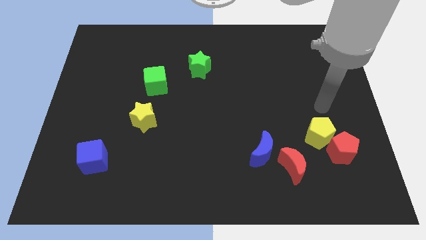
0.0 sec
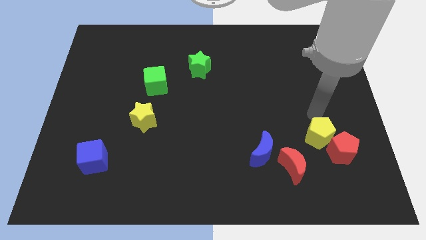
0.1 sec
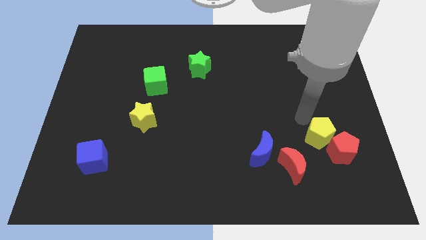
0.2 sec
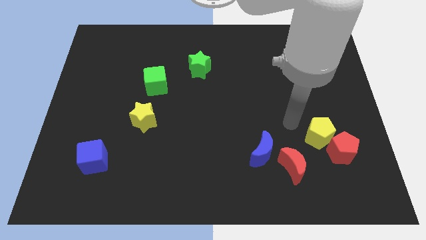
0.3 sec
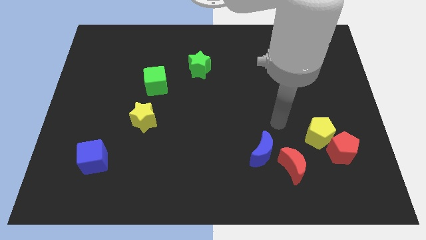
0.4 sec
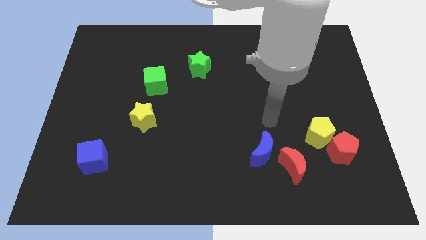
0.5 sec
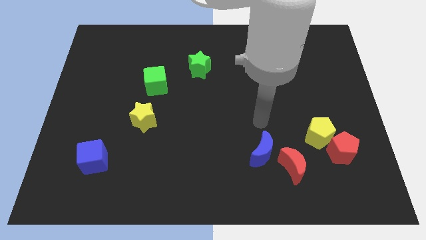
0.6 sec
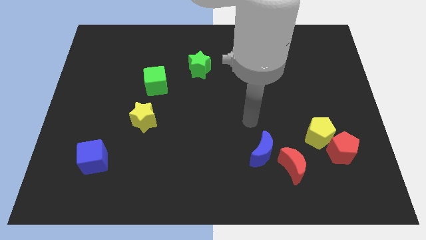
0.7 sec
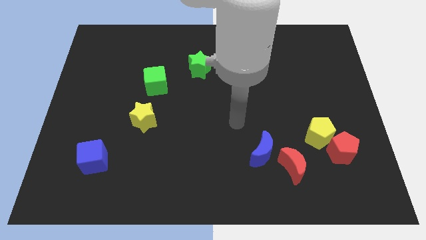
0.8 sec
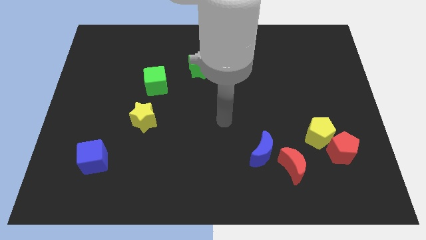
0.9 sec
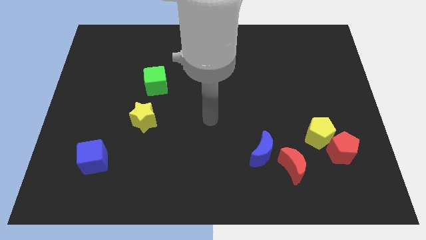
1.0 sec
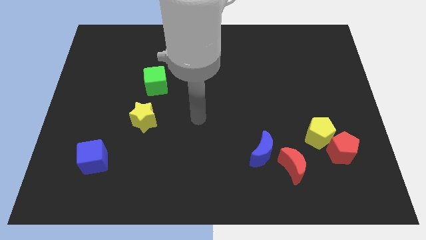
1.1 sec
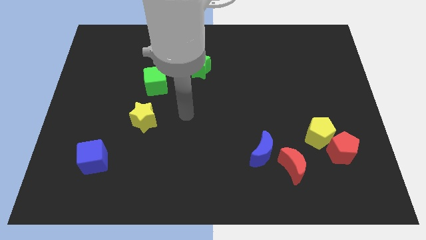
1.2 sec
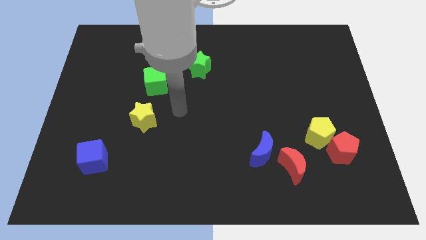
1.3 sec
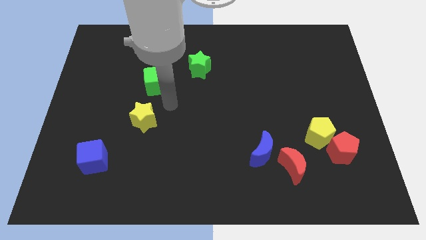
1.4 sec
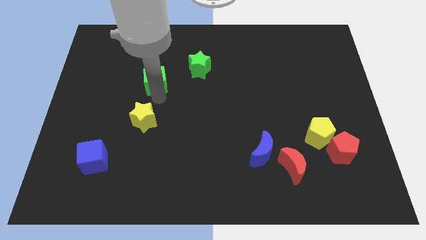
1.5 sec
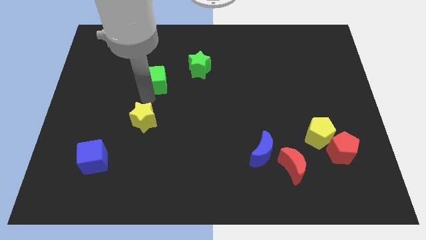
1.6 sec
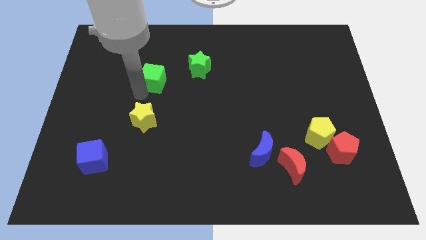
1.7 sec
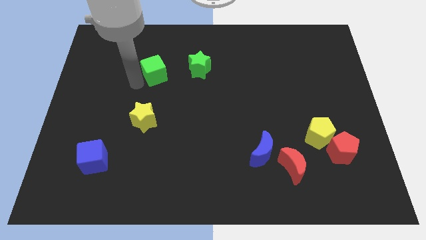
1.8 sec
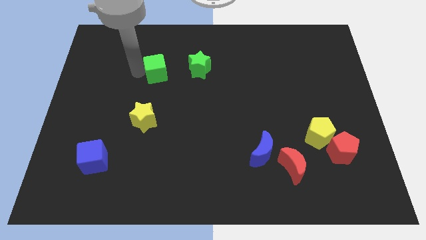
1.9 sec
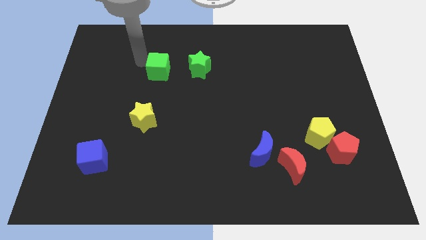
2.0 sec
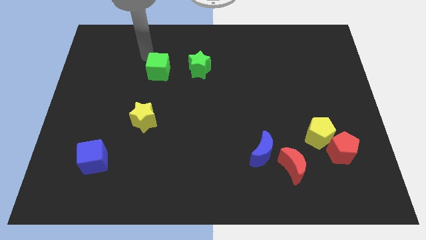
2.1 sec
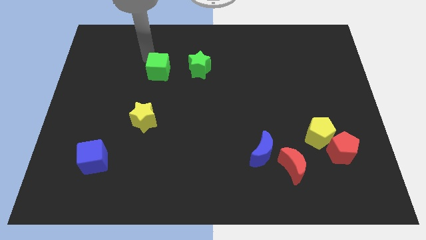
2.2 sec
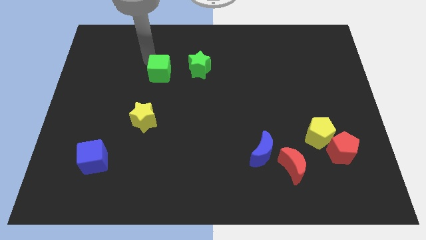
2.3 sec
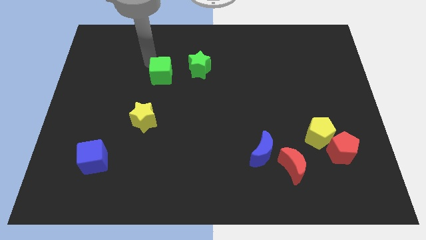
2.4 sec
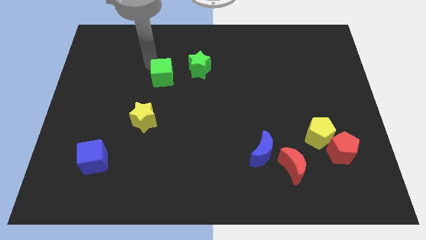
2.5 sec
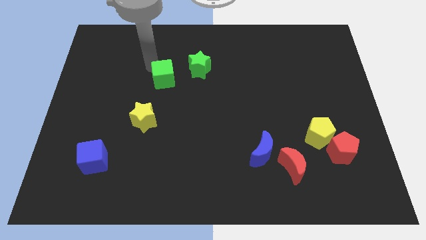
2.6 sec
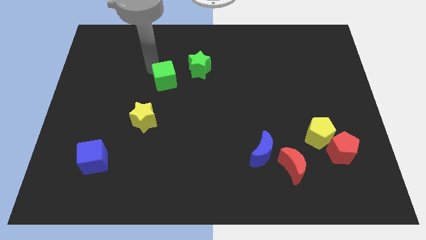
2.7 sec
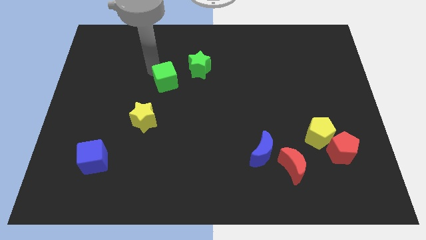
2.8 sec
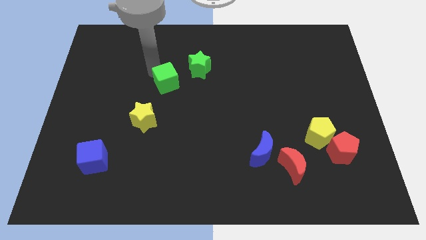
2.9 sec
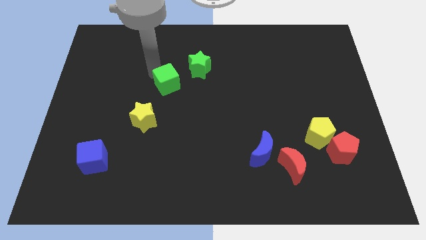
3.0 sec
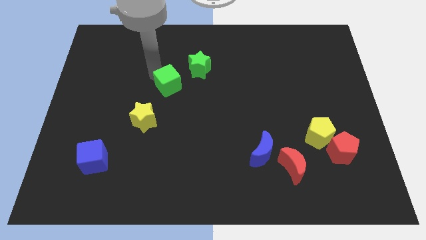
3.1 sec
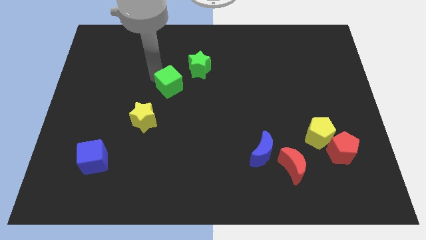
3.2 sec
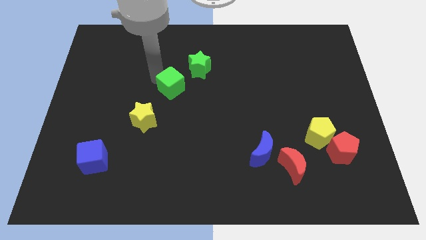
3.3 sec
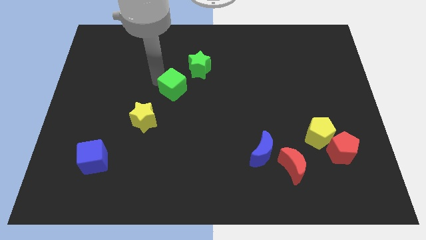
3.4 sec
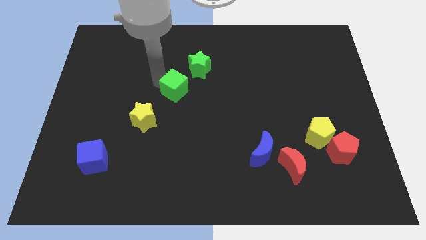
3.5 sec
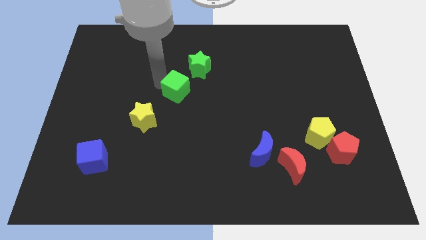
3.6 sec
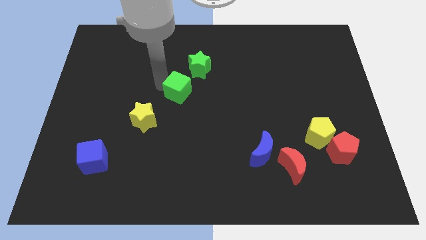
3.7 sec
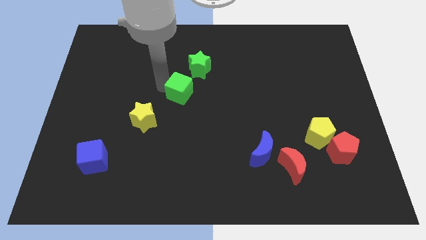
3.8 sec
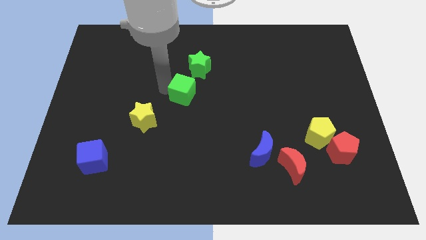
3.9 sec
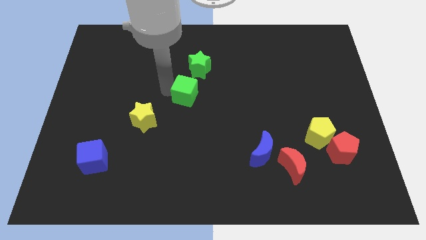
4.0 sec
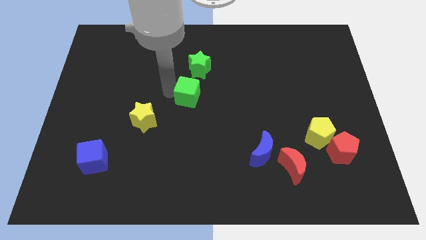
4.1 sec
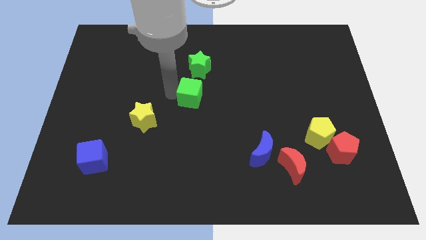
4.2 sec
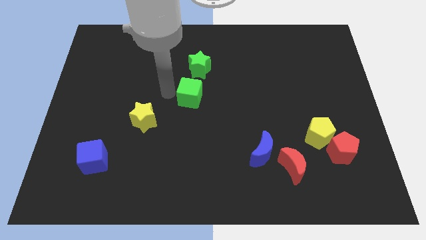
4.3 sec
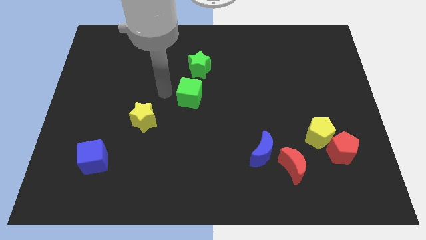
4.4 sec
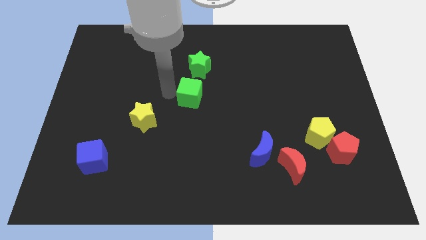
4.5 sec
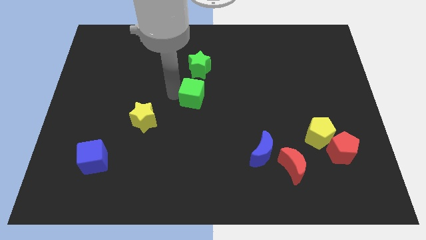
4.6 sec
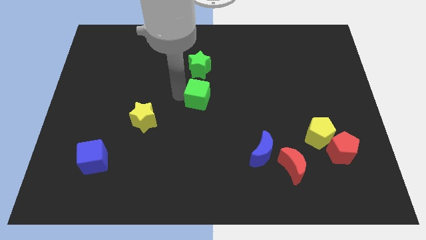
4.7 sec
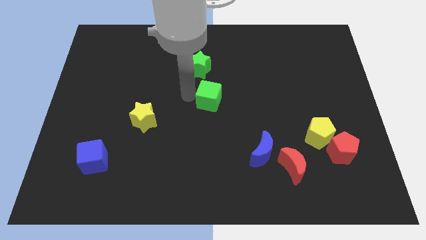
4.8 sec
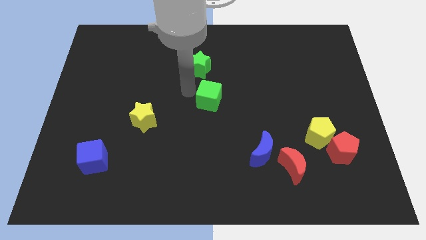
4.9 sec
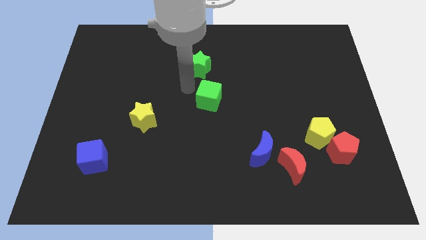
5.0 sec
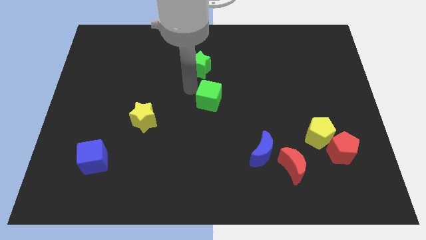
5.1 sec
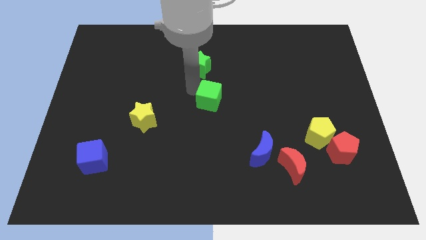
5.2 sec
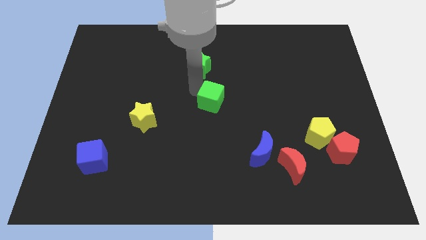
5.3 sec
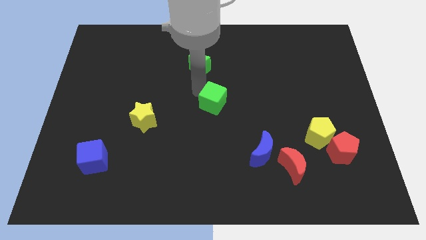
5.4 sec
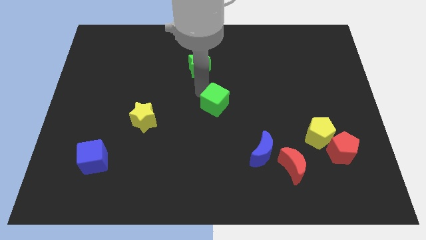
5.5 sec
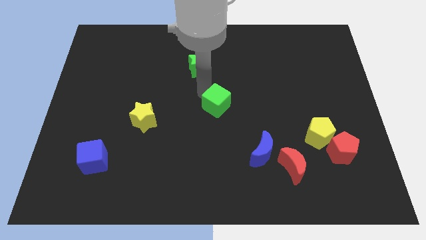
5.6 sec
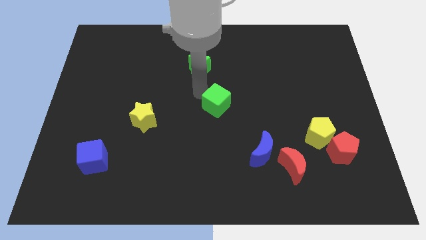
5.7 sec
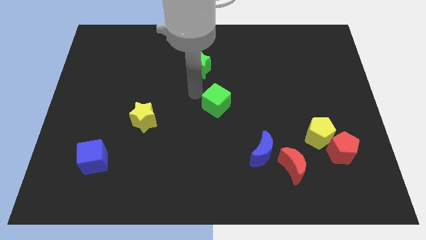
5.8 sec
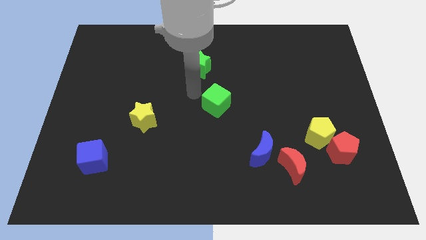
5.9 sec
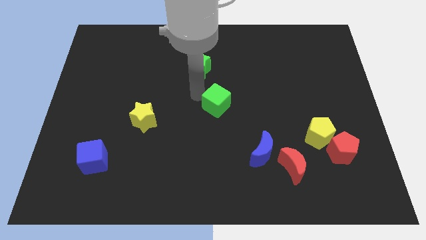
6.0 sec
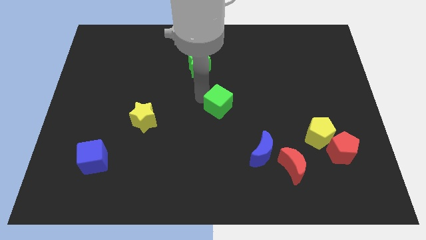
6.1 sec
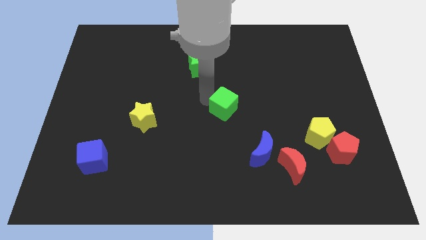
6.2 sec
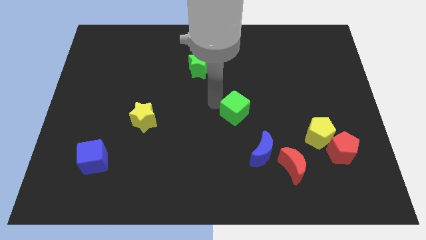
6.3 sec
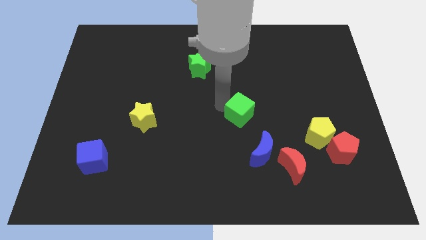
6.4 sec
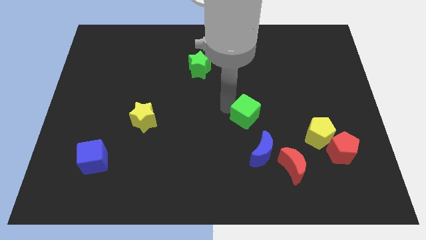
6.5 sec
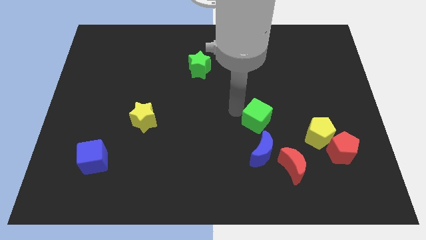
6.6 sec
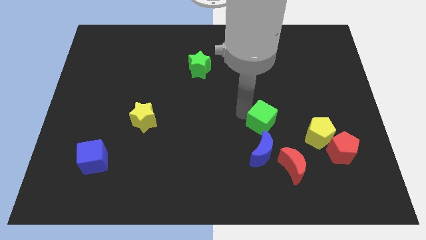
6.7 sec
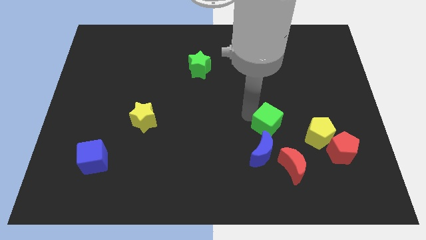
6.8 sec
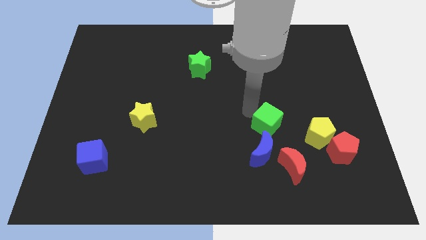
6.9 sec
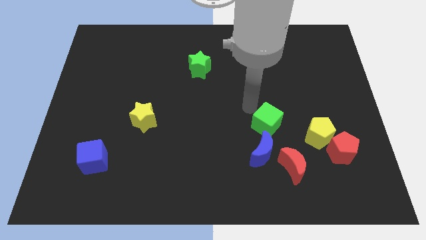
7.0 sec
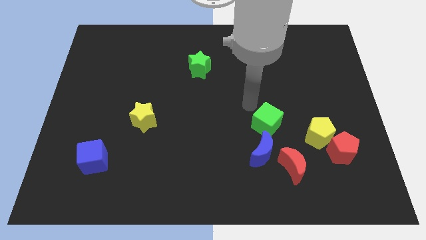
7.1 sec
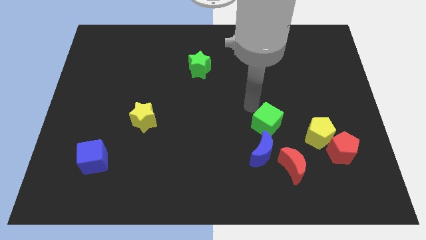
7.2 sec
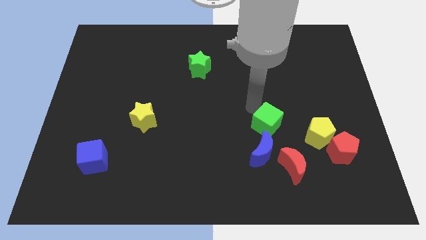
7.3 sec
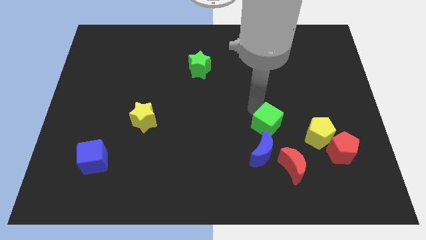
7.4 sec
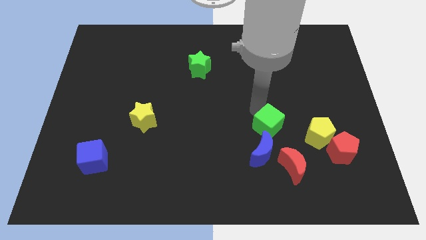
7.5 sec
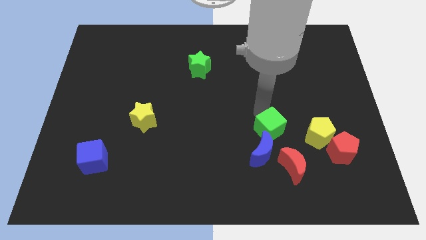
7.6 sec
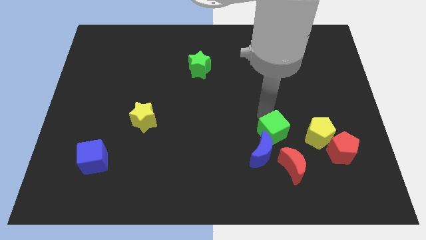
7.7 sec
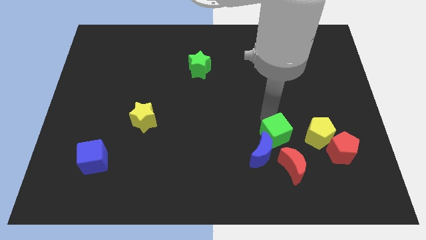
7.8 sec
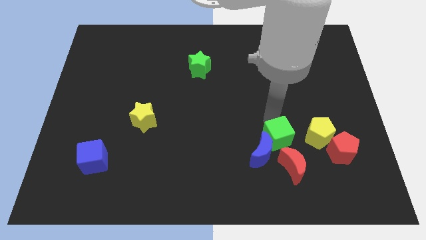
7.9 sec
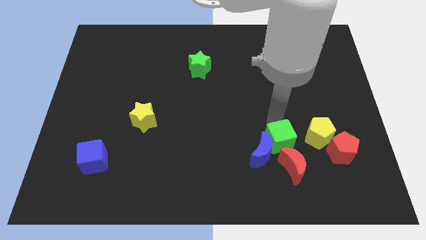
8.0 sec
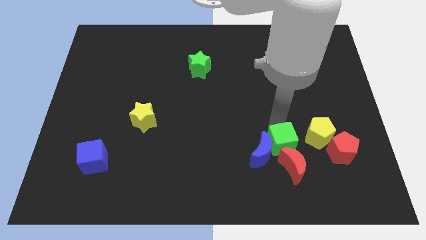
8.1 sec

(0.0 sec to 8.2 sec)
push the green cube next to the red moon
